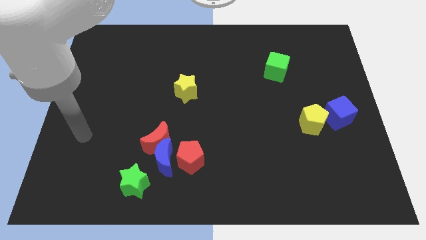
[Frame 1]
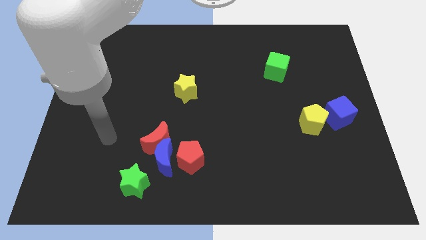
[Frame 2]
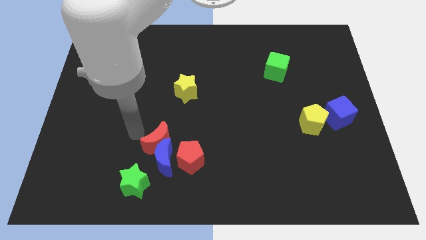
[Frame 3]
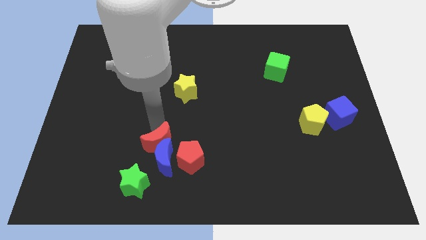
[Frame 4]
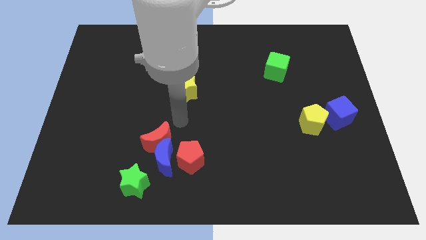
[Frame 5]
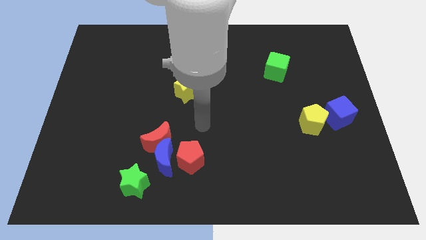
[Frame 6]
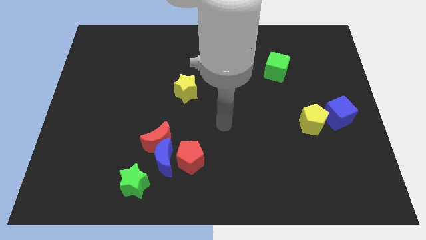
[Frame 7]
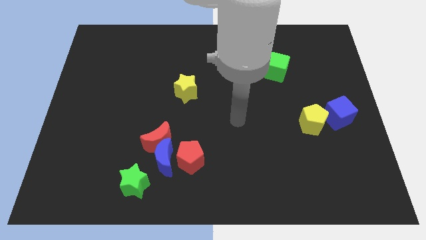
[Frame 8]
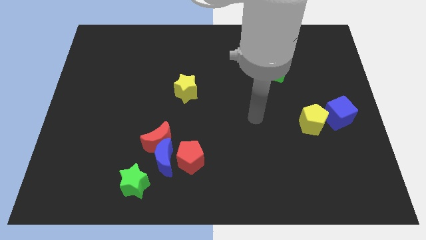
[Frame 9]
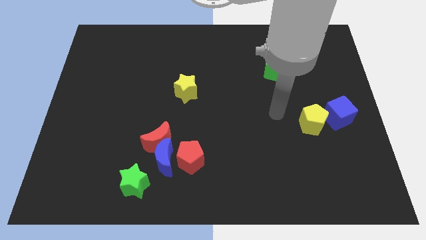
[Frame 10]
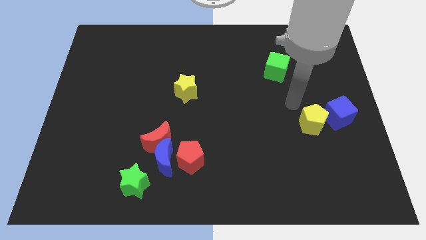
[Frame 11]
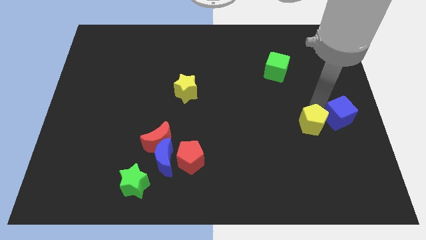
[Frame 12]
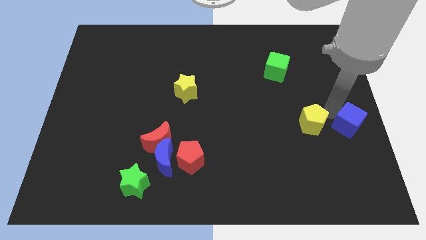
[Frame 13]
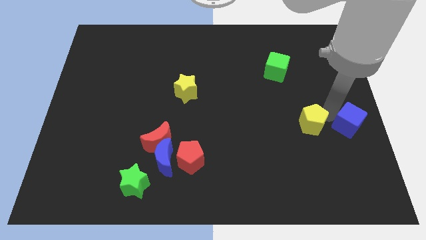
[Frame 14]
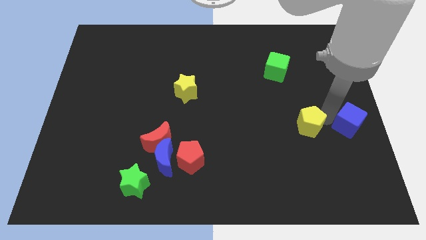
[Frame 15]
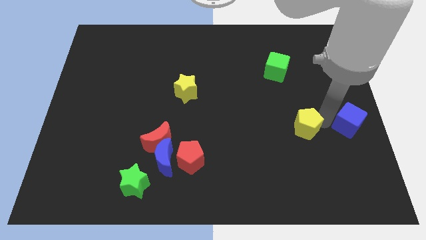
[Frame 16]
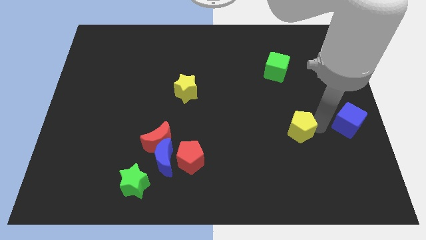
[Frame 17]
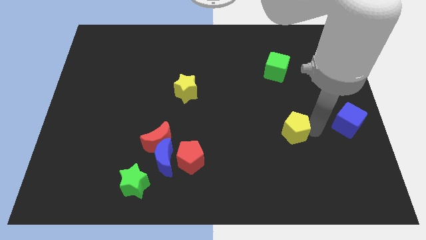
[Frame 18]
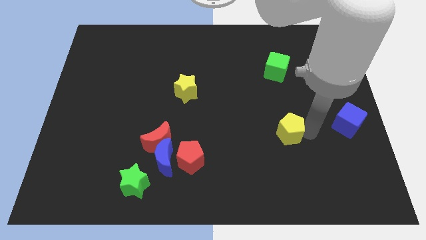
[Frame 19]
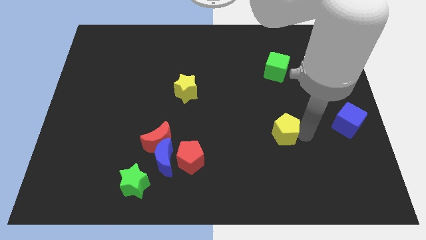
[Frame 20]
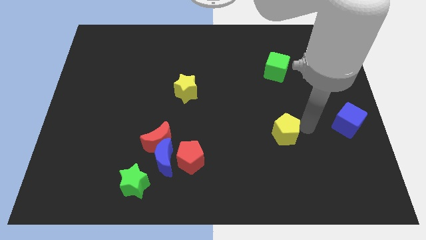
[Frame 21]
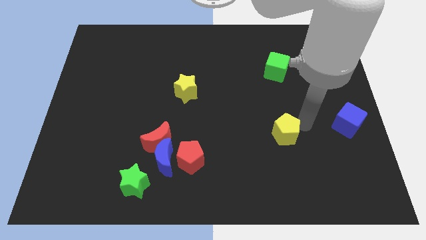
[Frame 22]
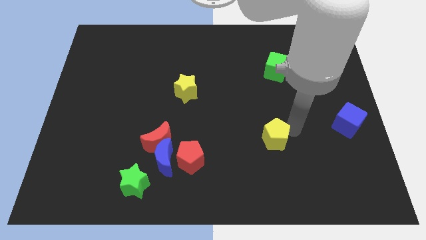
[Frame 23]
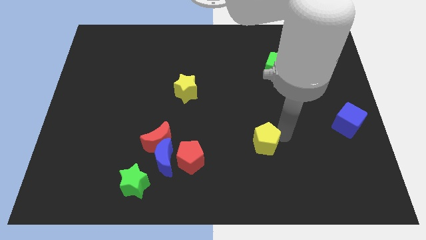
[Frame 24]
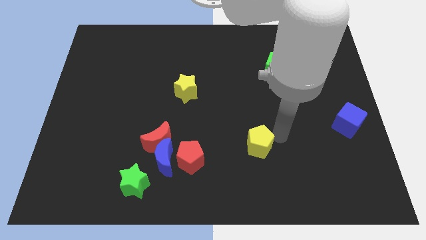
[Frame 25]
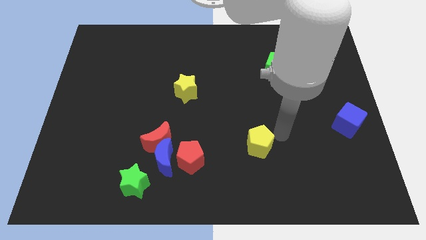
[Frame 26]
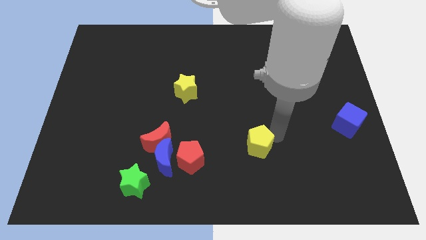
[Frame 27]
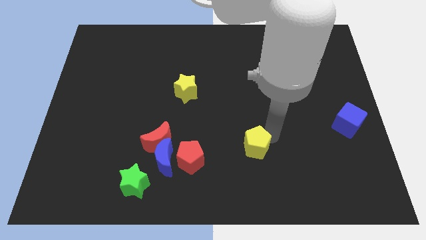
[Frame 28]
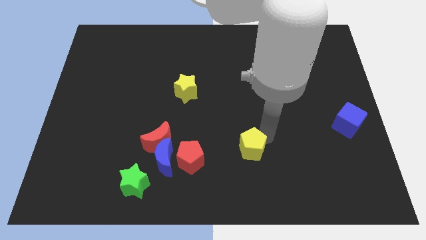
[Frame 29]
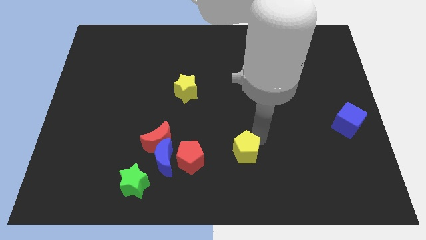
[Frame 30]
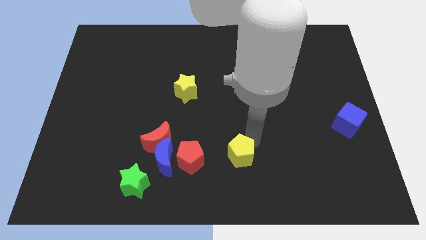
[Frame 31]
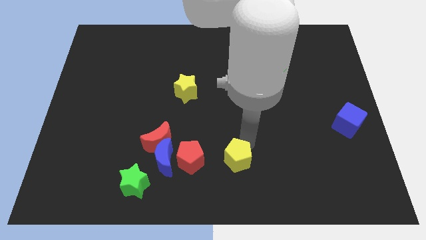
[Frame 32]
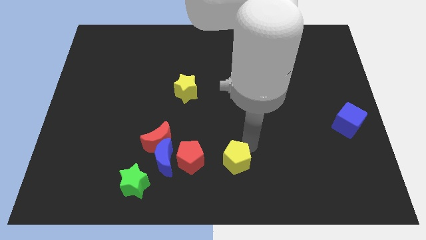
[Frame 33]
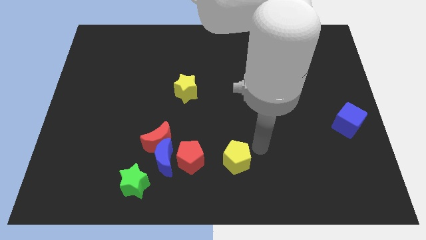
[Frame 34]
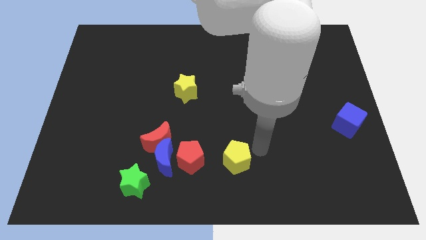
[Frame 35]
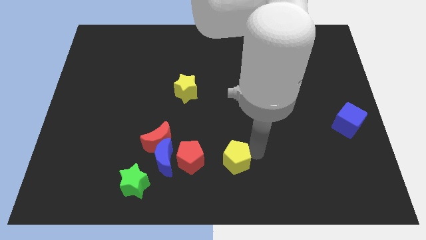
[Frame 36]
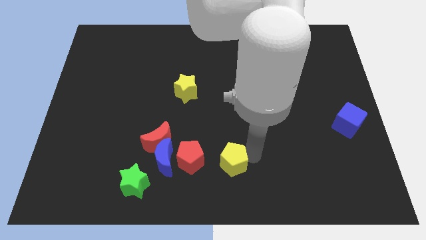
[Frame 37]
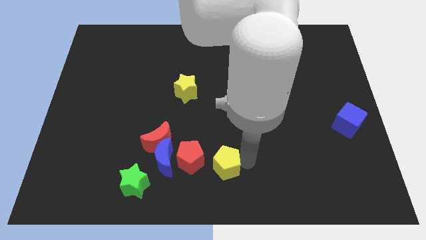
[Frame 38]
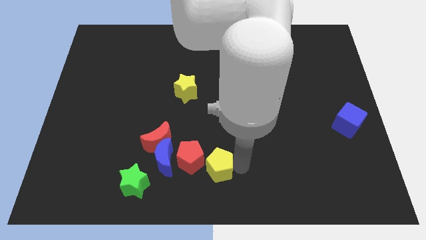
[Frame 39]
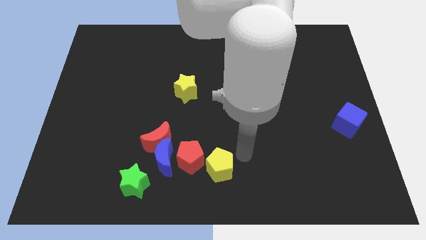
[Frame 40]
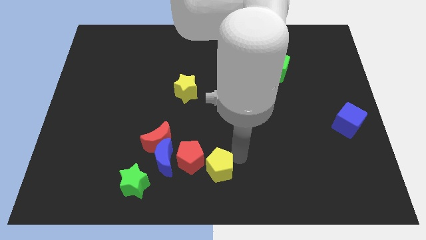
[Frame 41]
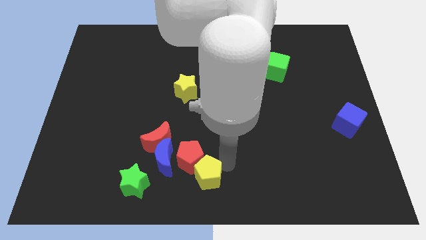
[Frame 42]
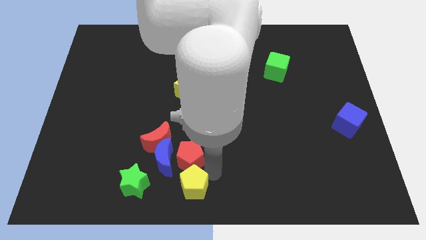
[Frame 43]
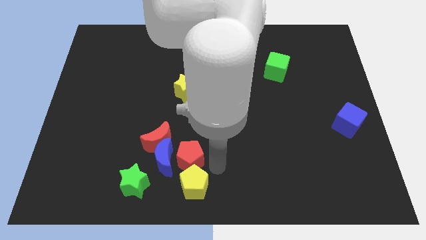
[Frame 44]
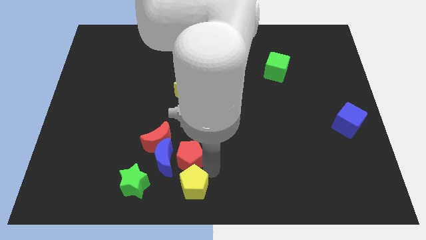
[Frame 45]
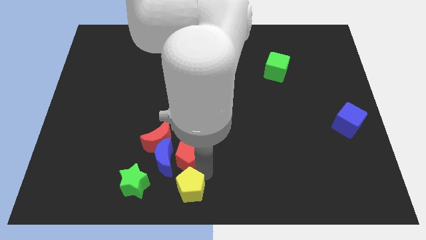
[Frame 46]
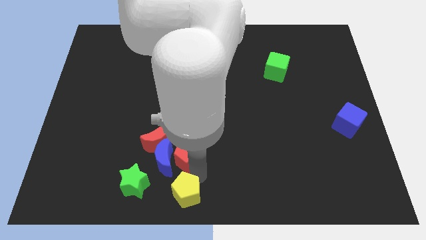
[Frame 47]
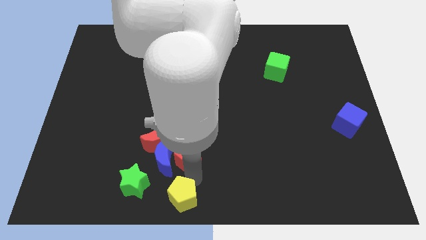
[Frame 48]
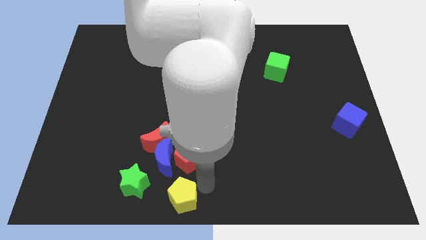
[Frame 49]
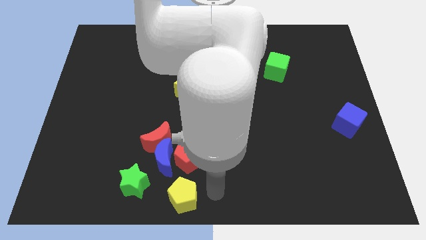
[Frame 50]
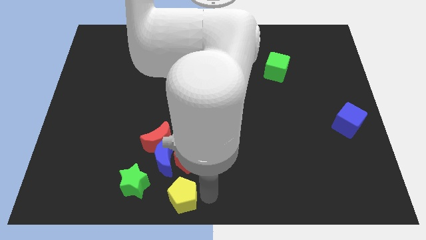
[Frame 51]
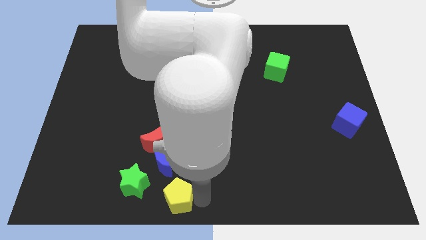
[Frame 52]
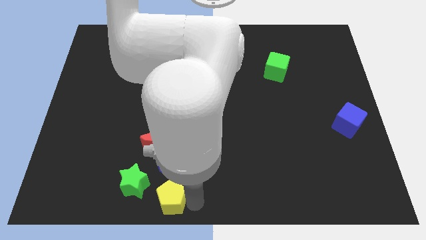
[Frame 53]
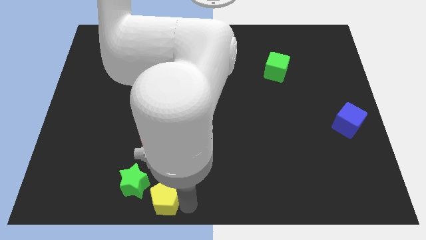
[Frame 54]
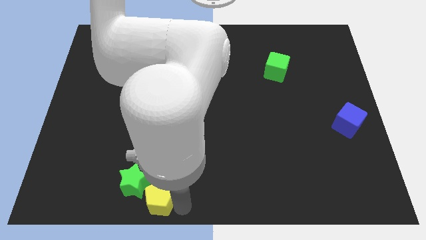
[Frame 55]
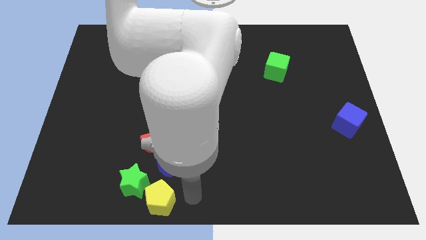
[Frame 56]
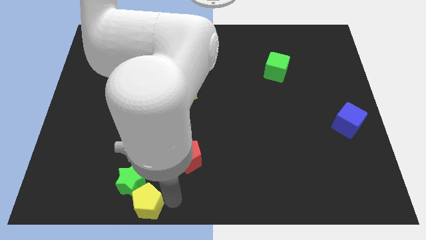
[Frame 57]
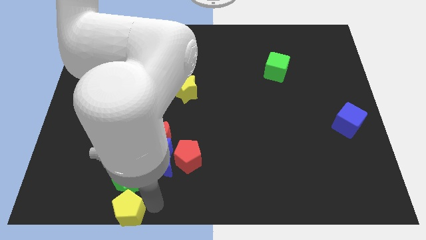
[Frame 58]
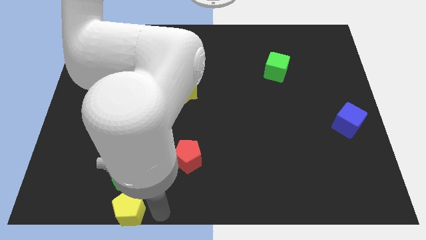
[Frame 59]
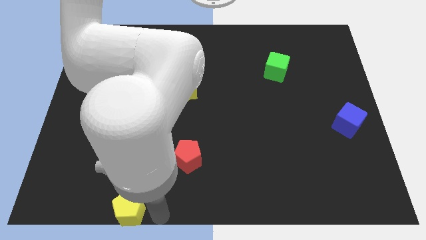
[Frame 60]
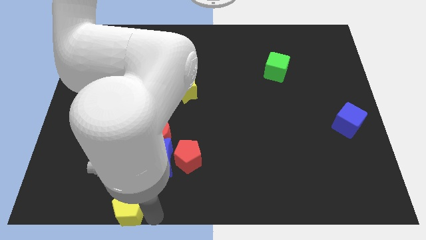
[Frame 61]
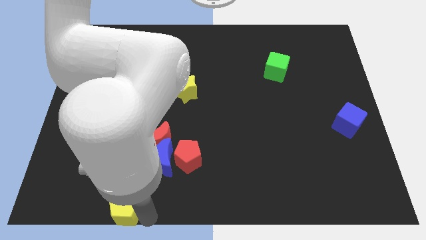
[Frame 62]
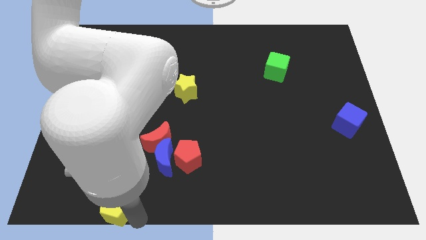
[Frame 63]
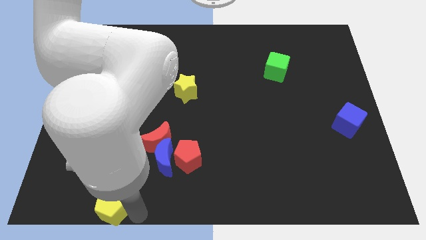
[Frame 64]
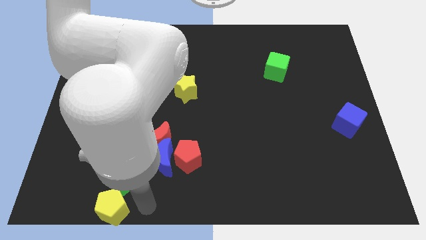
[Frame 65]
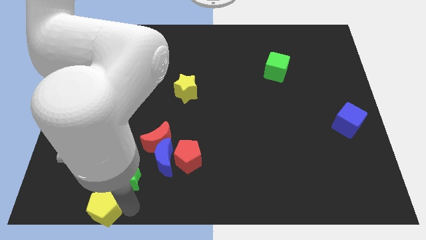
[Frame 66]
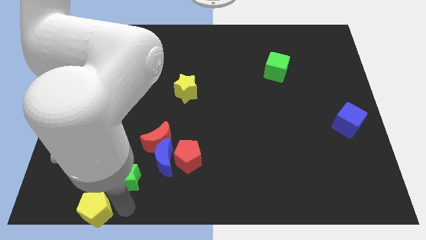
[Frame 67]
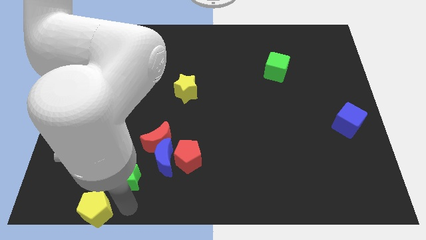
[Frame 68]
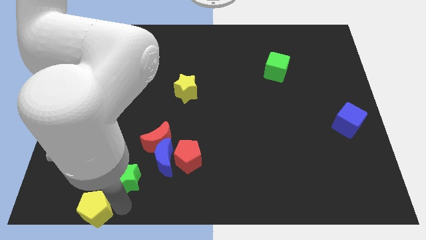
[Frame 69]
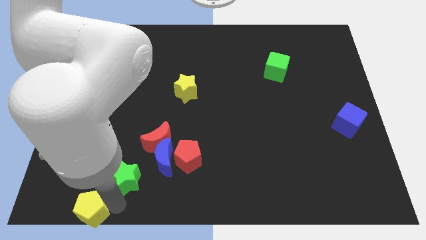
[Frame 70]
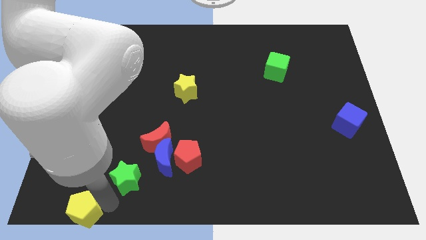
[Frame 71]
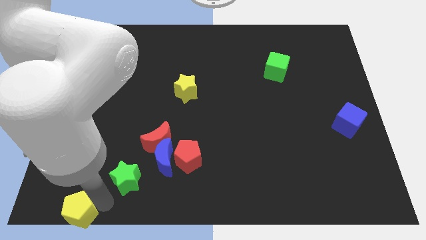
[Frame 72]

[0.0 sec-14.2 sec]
push the yellow pentagon to the bottom left corner
